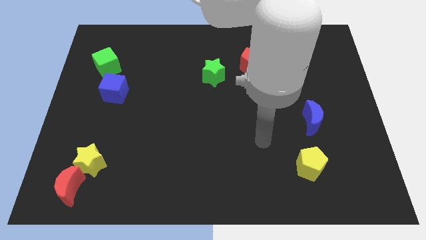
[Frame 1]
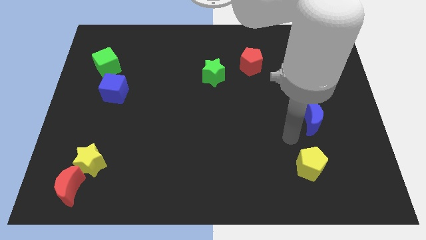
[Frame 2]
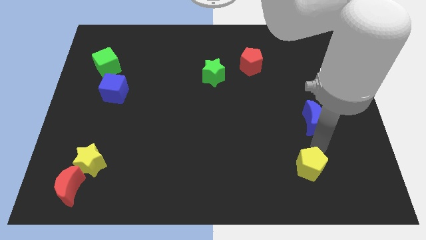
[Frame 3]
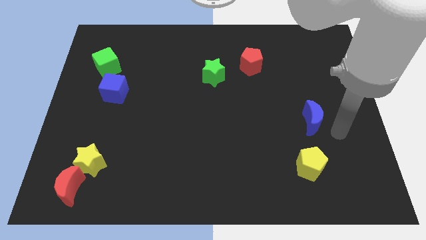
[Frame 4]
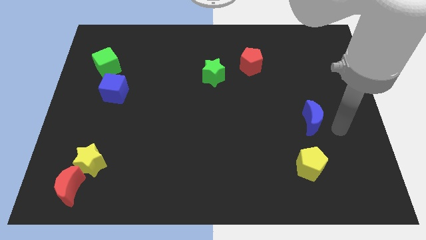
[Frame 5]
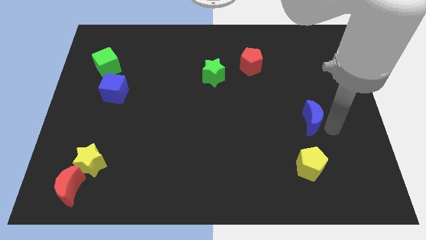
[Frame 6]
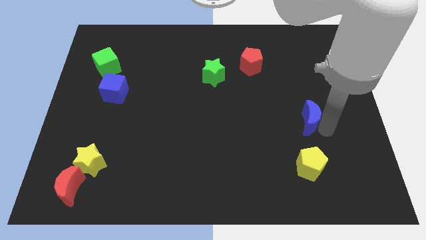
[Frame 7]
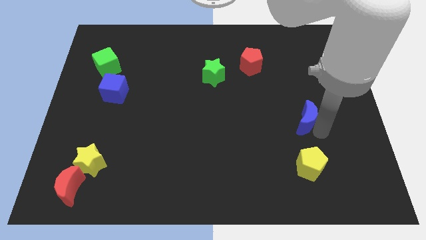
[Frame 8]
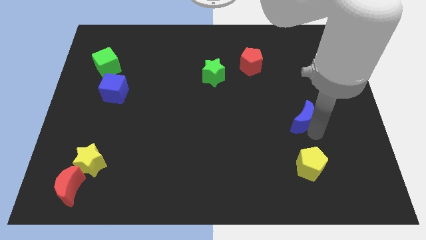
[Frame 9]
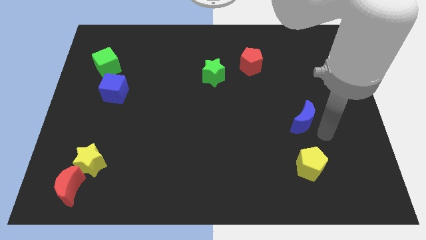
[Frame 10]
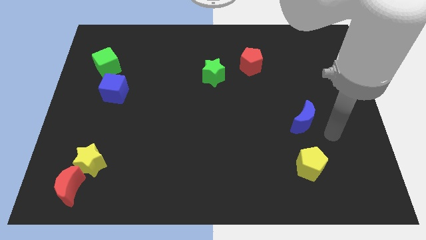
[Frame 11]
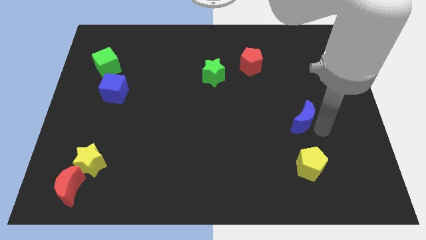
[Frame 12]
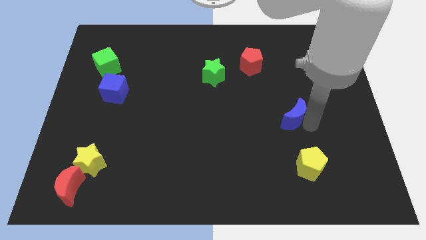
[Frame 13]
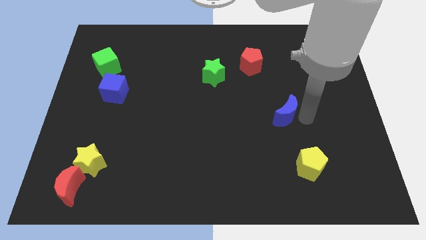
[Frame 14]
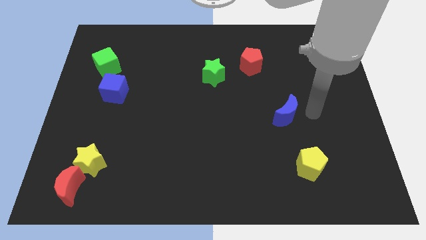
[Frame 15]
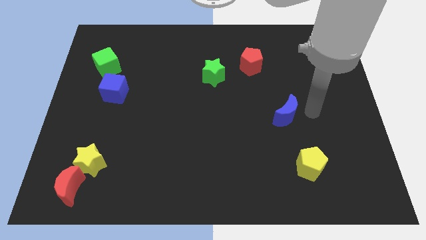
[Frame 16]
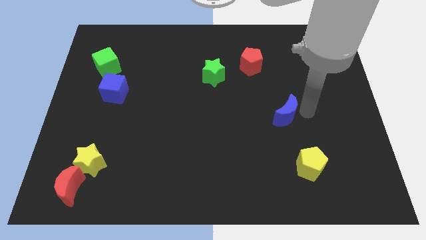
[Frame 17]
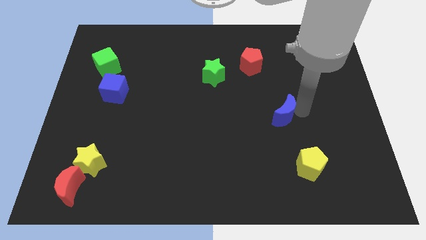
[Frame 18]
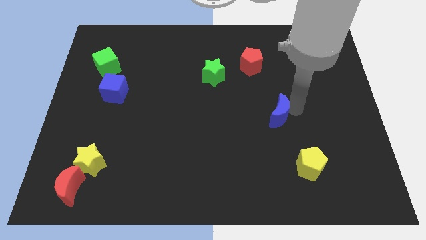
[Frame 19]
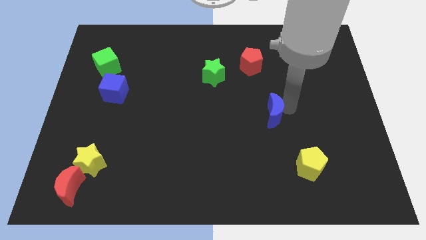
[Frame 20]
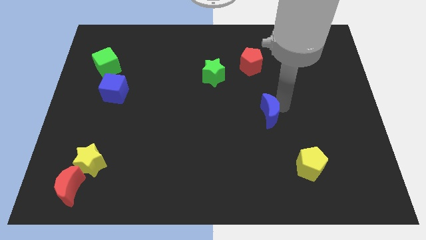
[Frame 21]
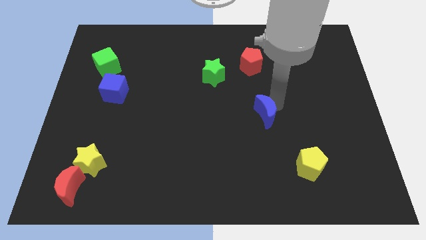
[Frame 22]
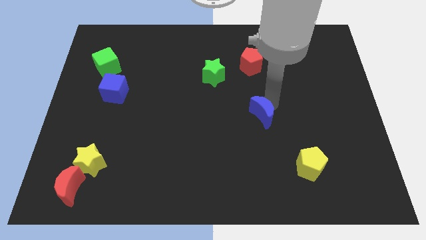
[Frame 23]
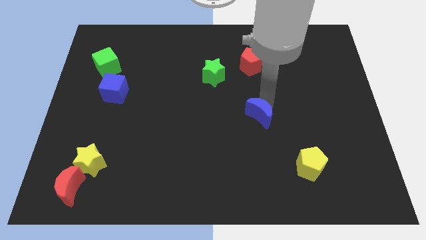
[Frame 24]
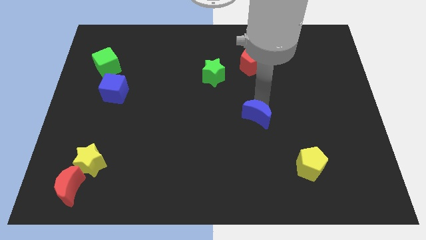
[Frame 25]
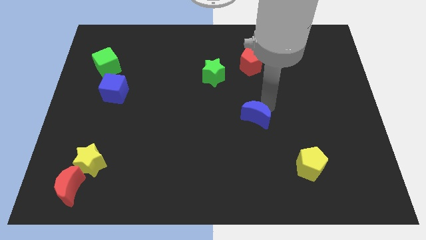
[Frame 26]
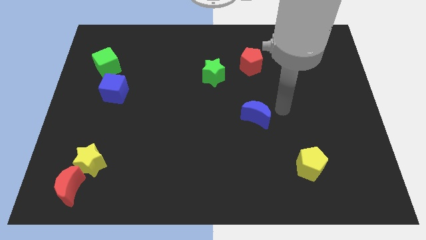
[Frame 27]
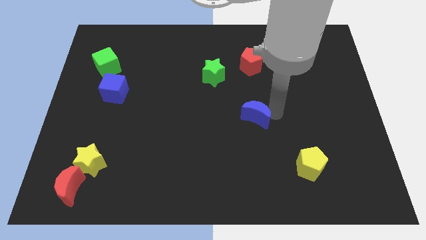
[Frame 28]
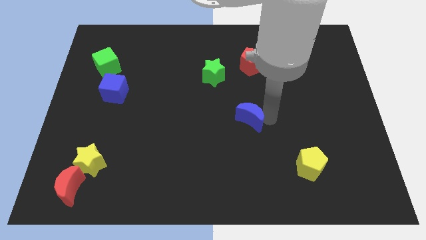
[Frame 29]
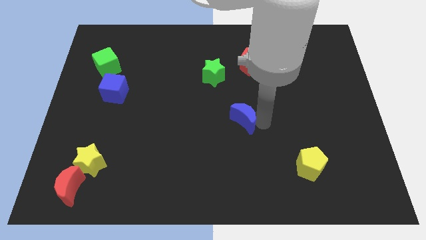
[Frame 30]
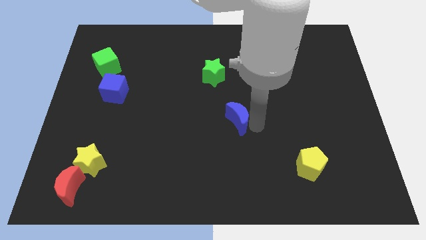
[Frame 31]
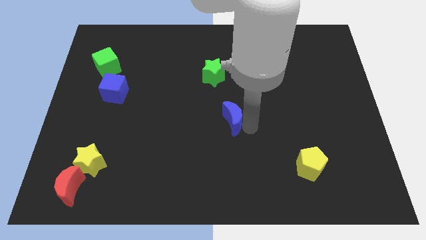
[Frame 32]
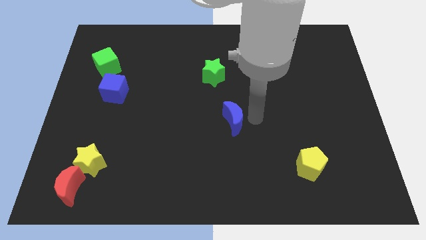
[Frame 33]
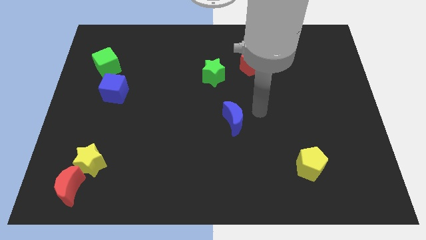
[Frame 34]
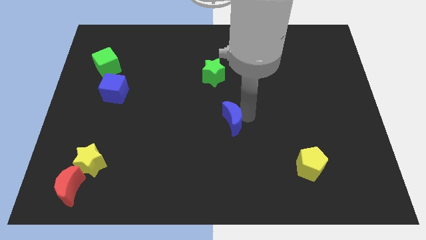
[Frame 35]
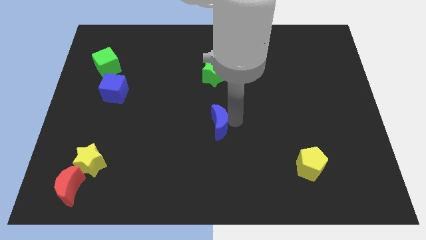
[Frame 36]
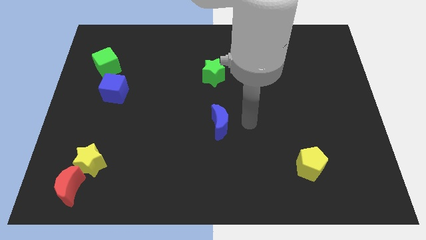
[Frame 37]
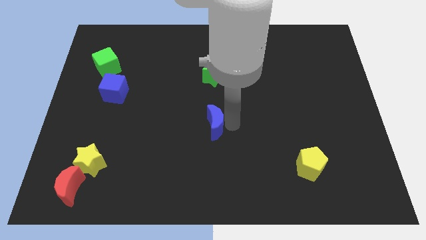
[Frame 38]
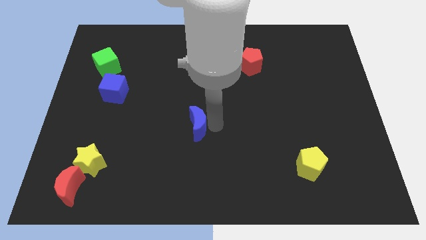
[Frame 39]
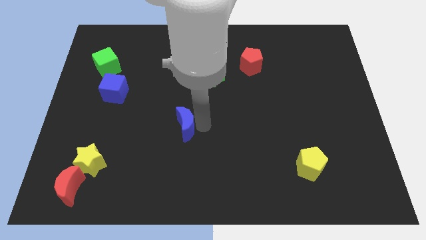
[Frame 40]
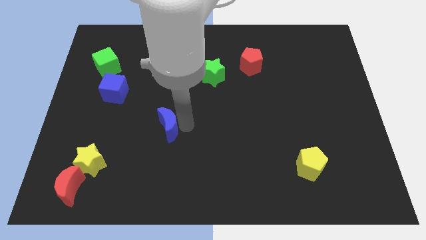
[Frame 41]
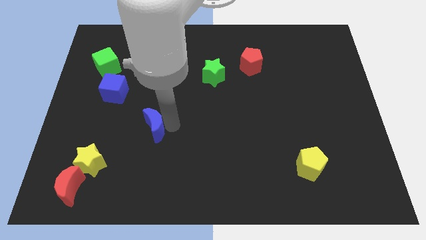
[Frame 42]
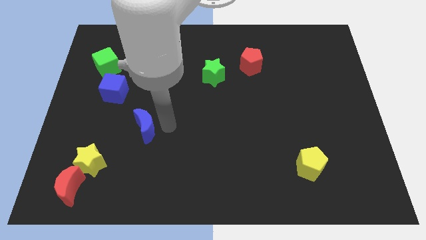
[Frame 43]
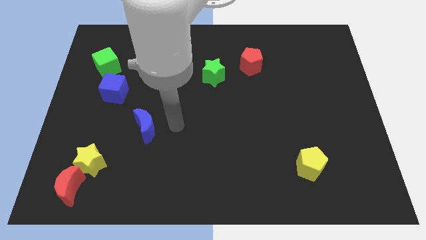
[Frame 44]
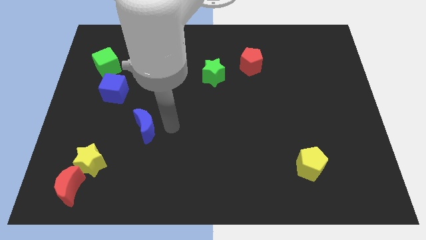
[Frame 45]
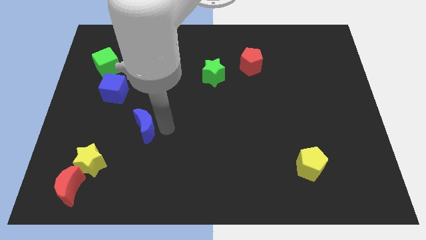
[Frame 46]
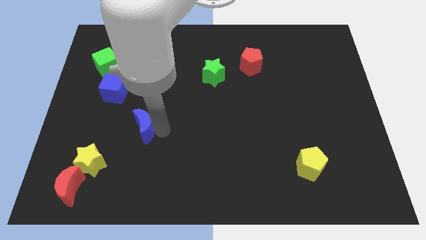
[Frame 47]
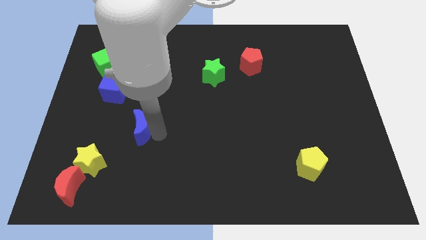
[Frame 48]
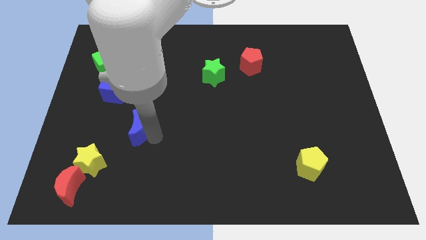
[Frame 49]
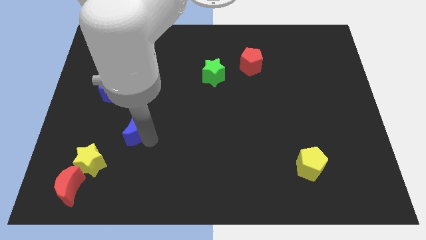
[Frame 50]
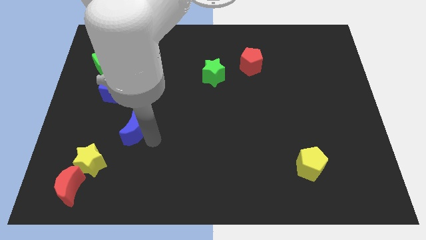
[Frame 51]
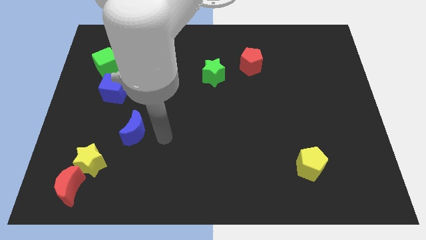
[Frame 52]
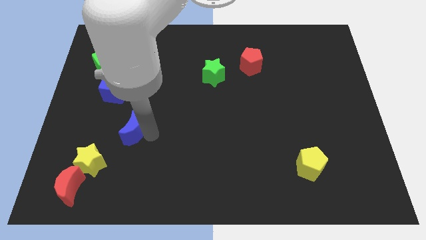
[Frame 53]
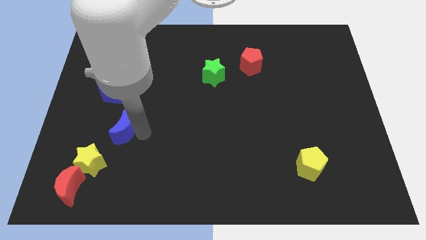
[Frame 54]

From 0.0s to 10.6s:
push the blue moon to the bottom of the blue cube

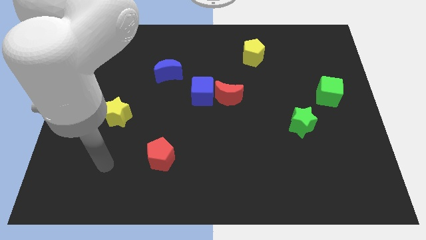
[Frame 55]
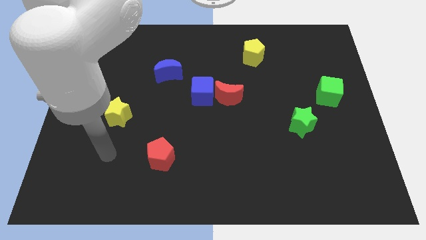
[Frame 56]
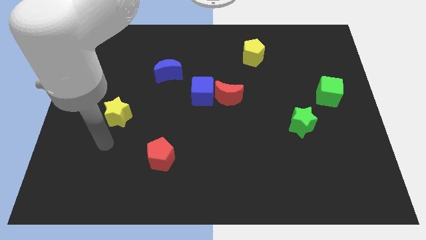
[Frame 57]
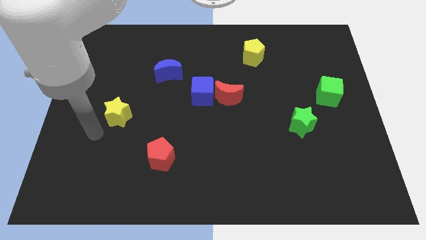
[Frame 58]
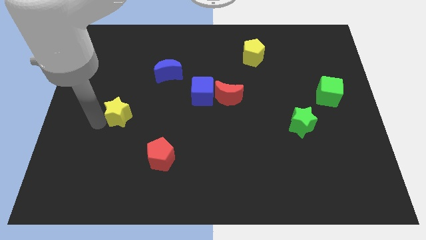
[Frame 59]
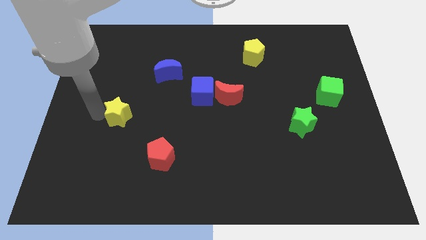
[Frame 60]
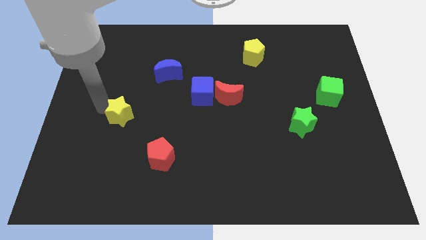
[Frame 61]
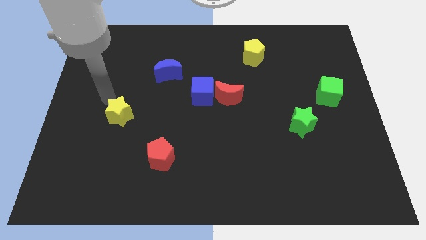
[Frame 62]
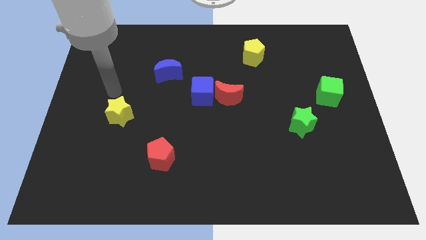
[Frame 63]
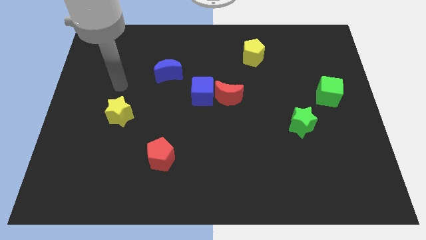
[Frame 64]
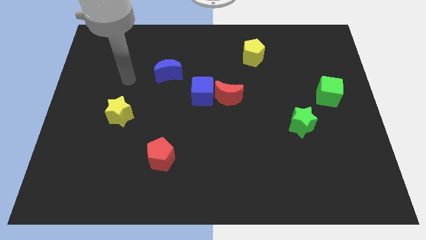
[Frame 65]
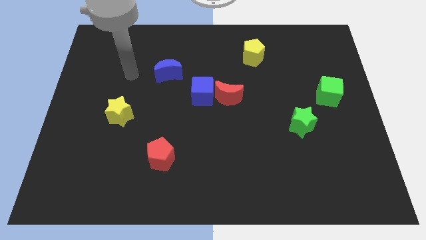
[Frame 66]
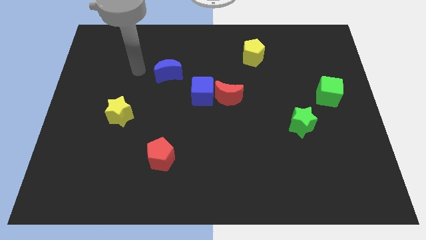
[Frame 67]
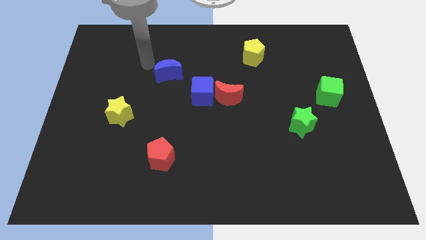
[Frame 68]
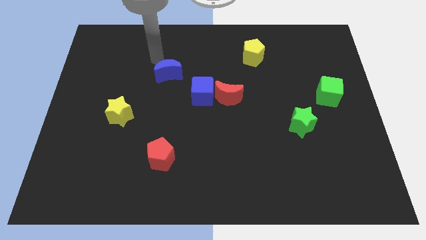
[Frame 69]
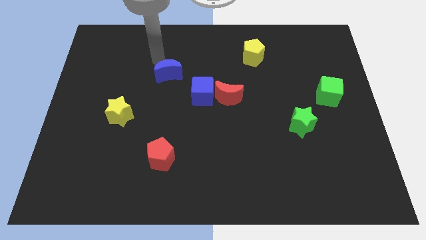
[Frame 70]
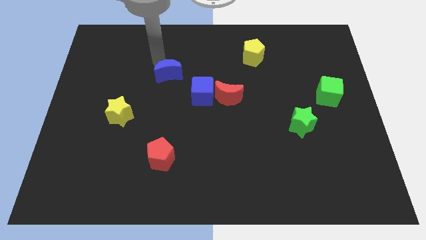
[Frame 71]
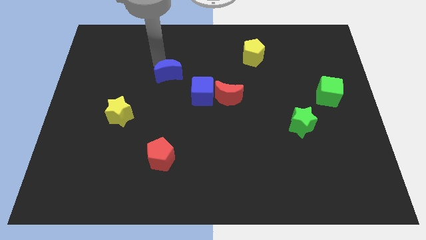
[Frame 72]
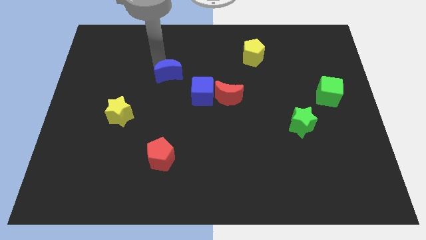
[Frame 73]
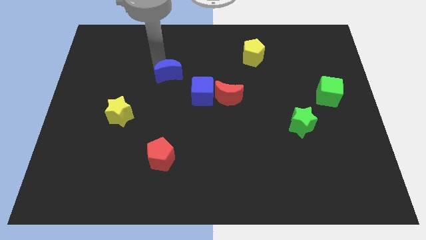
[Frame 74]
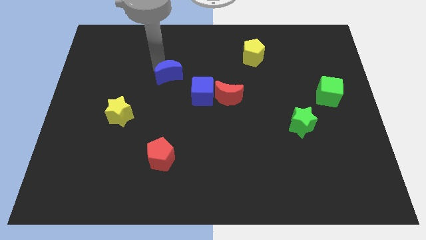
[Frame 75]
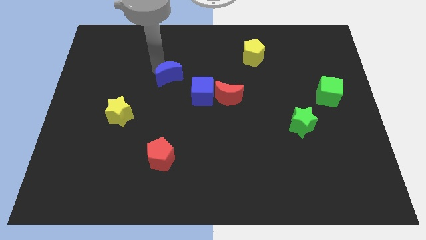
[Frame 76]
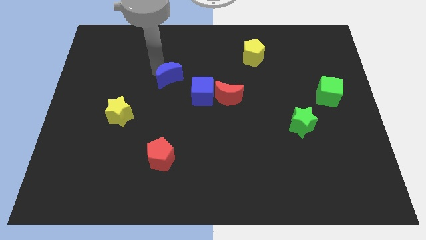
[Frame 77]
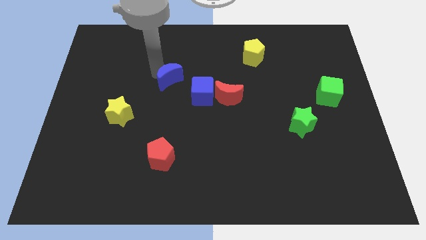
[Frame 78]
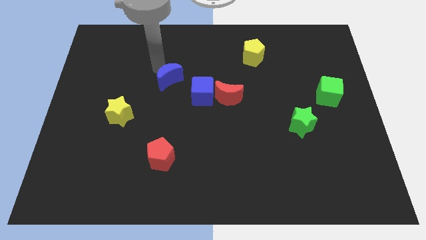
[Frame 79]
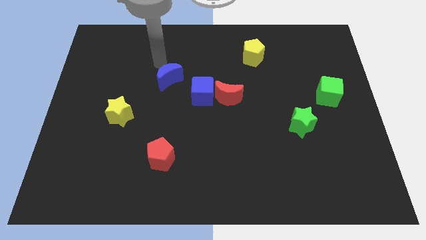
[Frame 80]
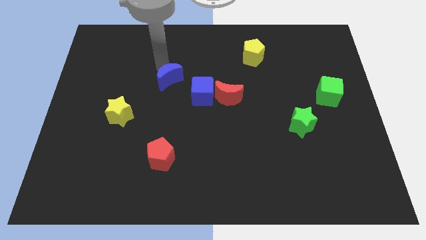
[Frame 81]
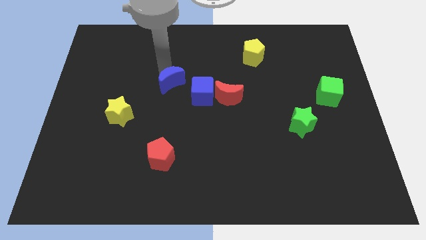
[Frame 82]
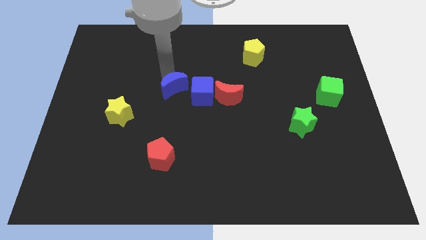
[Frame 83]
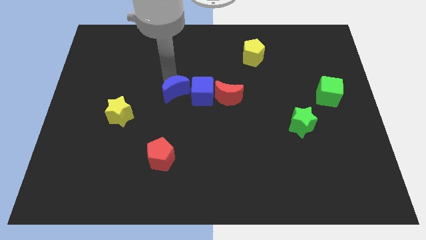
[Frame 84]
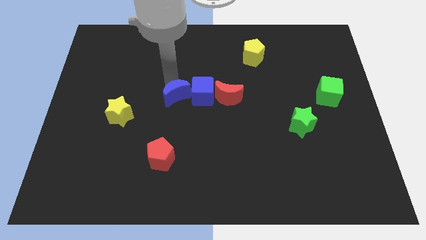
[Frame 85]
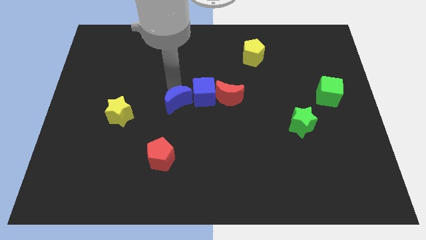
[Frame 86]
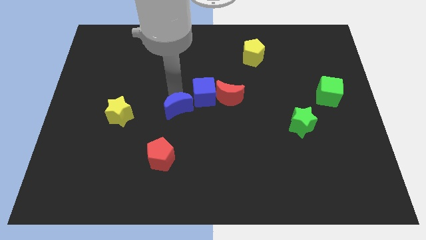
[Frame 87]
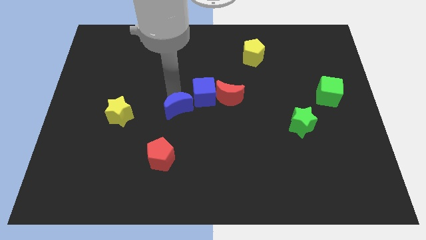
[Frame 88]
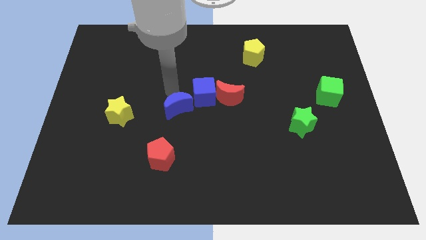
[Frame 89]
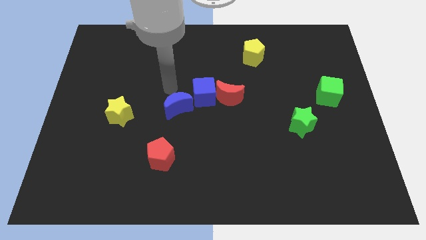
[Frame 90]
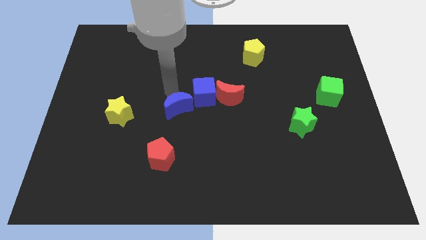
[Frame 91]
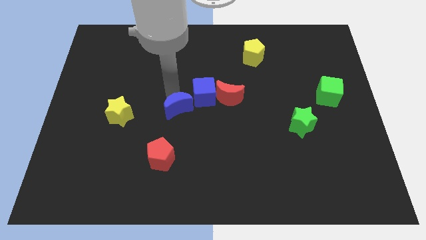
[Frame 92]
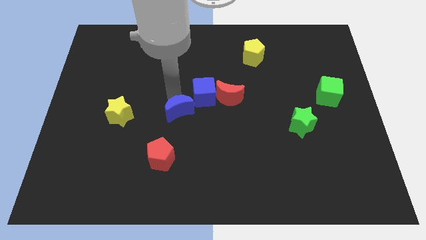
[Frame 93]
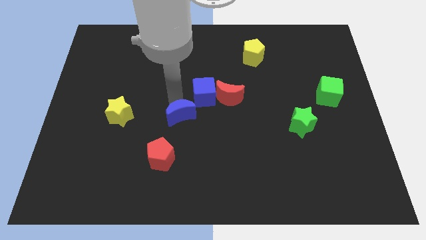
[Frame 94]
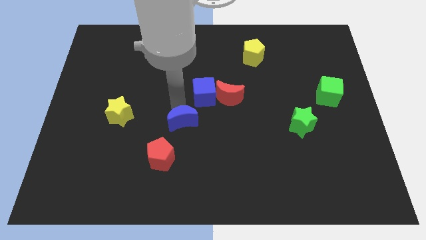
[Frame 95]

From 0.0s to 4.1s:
put the blue moon to the top right of the red pentagon
